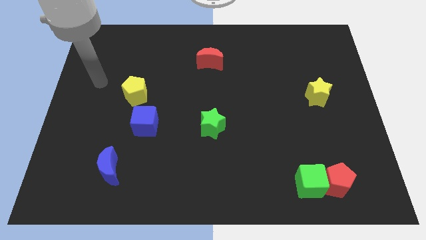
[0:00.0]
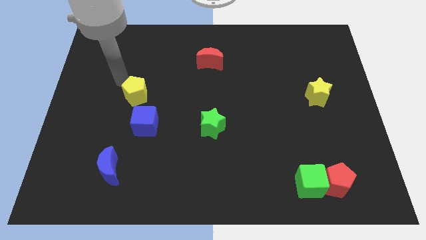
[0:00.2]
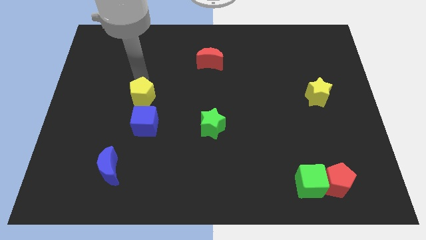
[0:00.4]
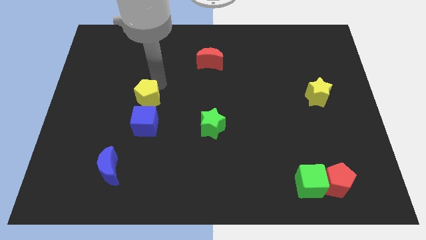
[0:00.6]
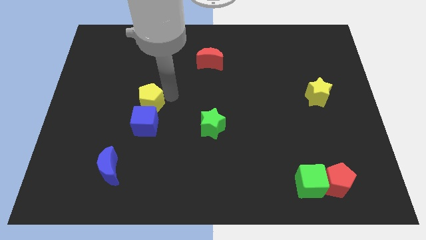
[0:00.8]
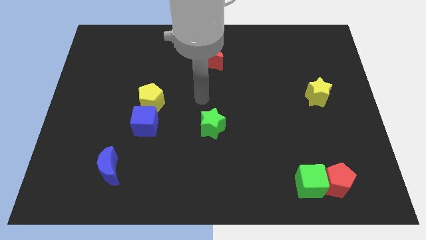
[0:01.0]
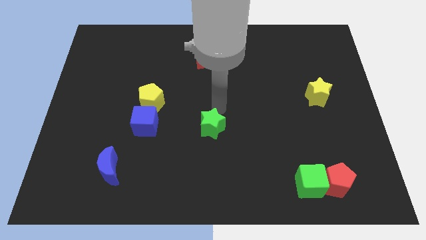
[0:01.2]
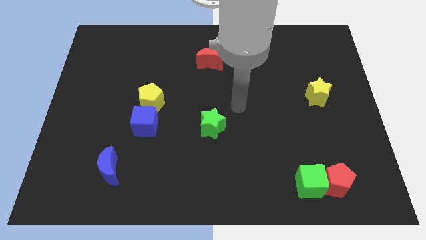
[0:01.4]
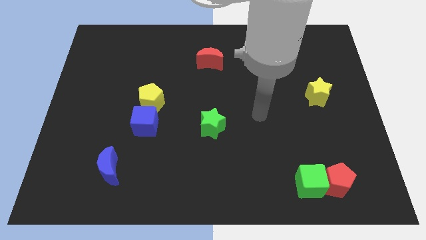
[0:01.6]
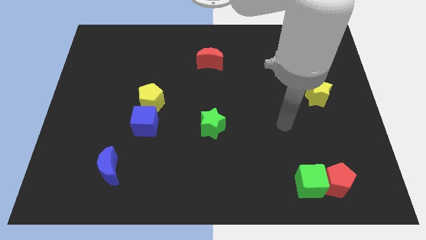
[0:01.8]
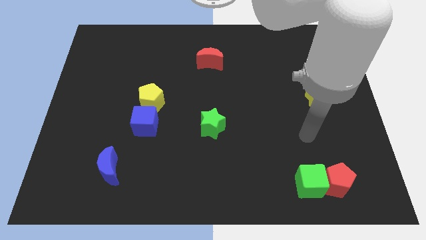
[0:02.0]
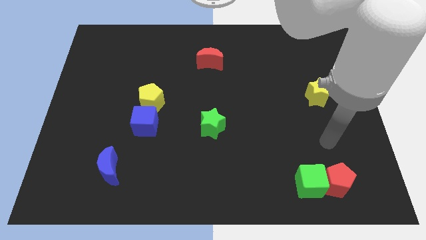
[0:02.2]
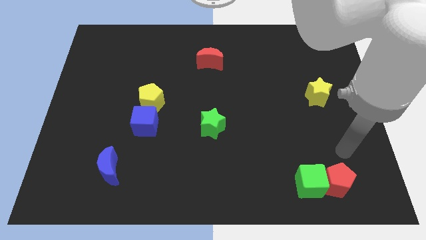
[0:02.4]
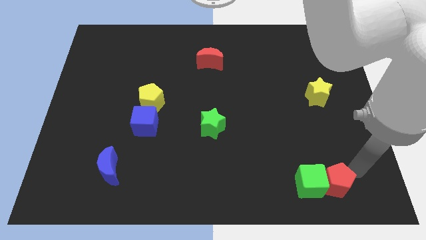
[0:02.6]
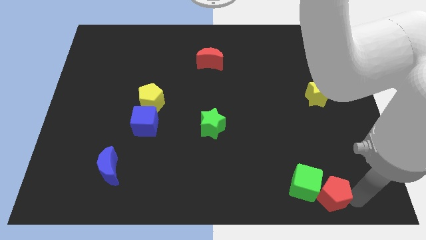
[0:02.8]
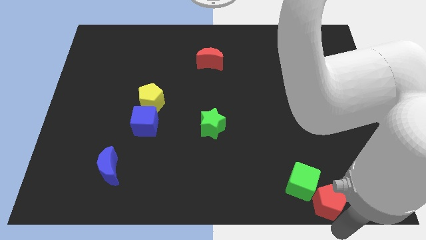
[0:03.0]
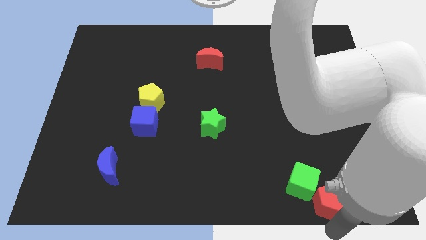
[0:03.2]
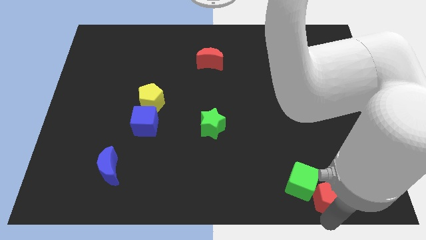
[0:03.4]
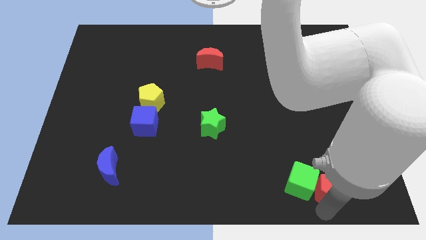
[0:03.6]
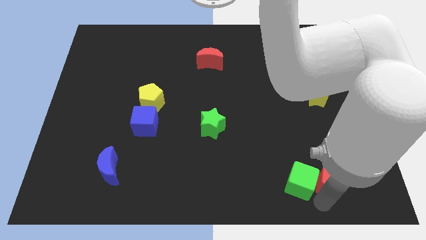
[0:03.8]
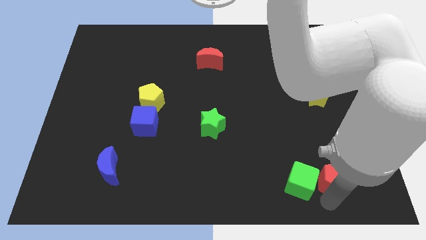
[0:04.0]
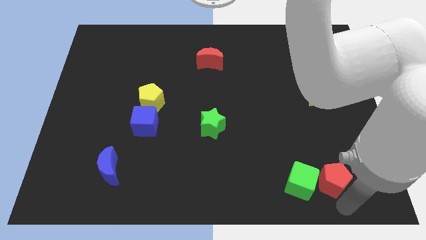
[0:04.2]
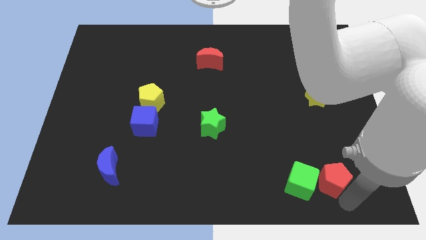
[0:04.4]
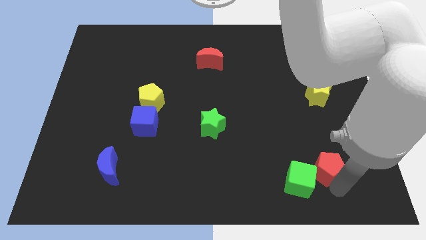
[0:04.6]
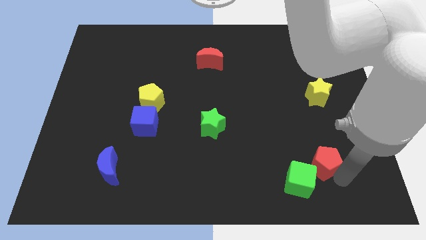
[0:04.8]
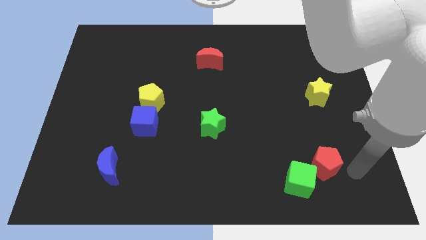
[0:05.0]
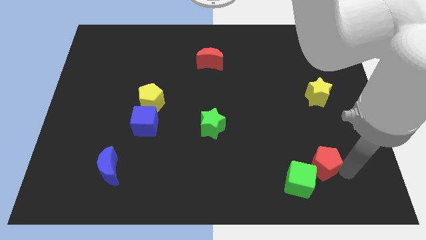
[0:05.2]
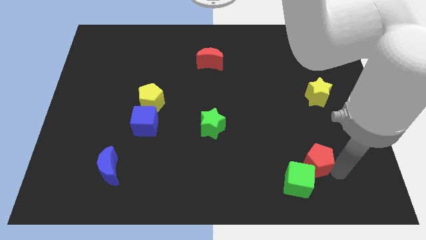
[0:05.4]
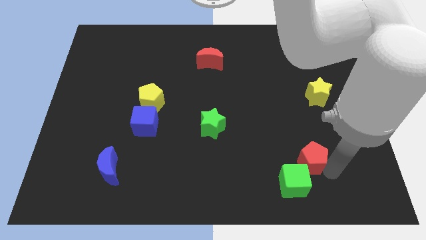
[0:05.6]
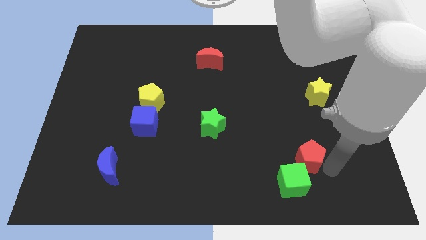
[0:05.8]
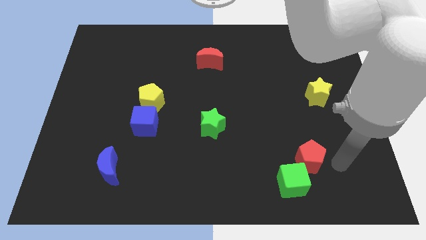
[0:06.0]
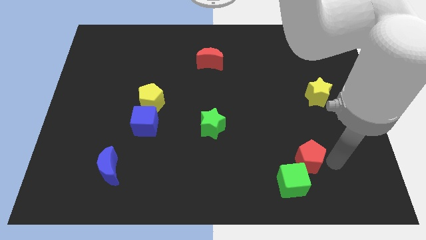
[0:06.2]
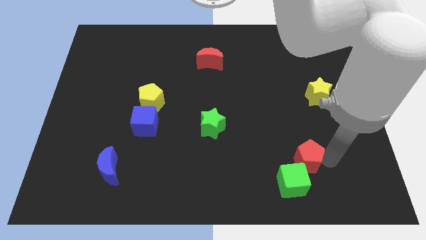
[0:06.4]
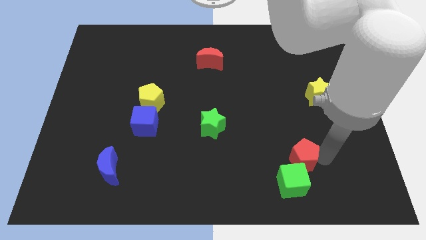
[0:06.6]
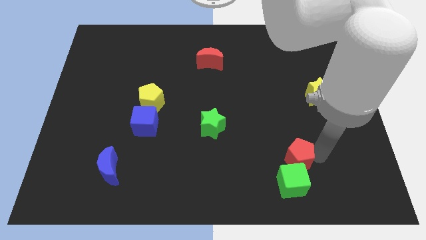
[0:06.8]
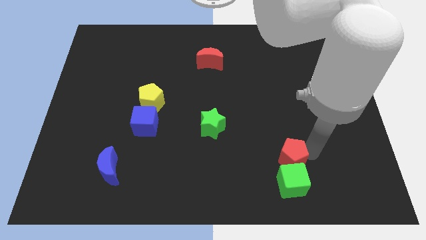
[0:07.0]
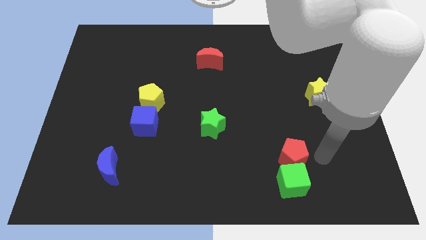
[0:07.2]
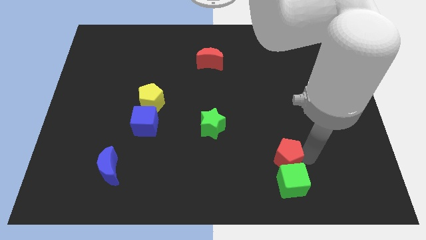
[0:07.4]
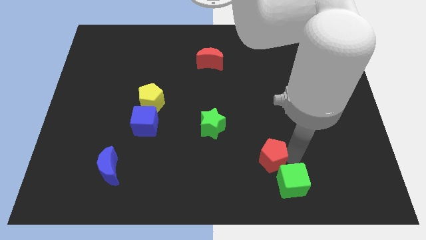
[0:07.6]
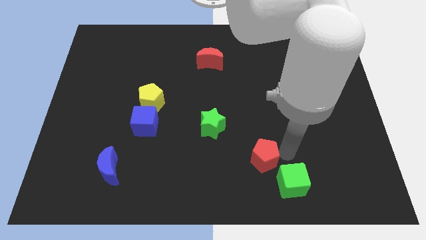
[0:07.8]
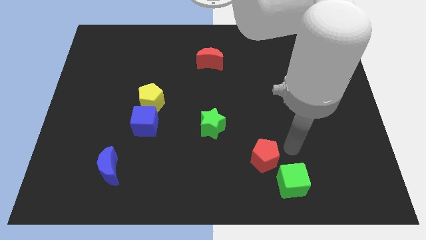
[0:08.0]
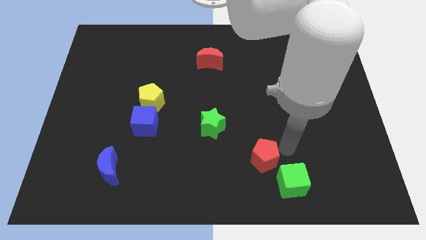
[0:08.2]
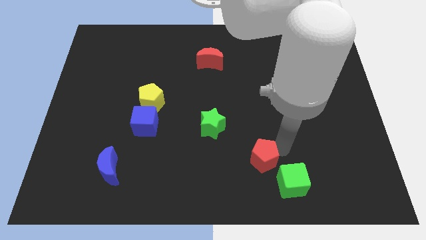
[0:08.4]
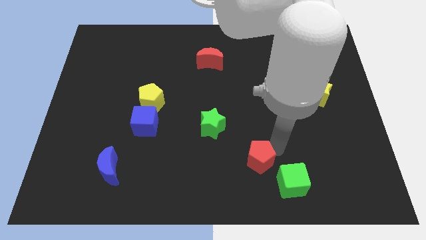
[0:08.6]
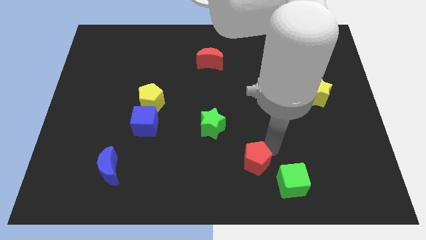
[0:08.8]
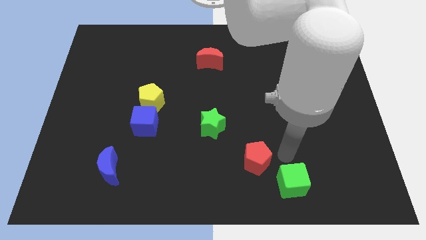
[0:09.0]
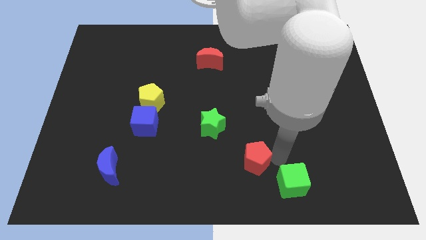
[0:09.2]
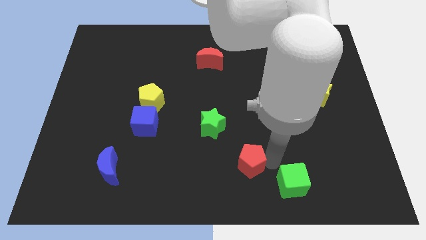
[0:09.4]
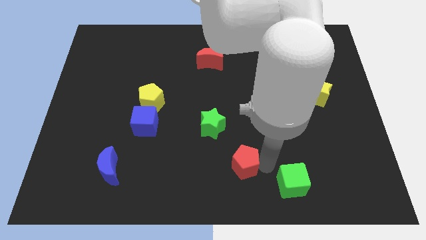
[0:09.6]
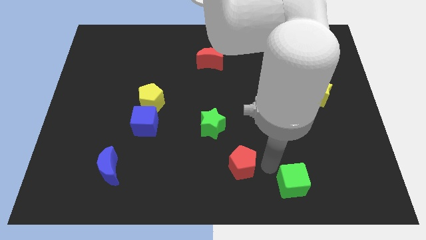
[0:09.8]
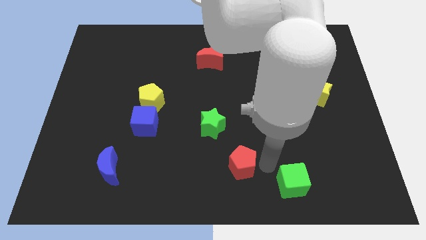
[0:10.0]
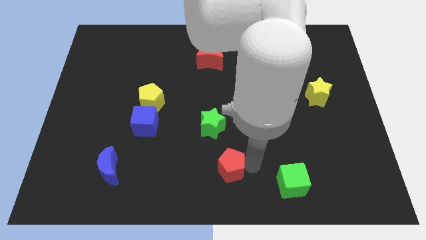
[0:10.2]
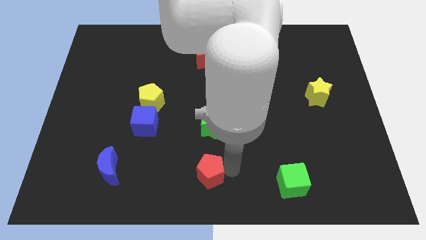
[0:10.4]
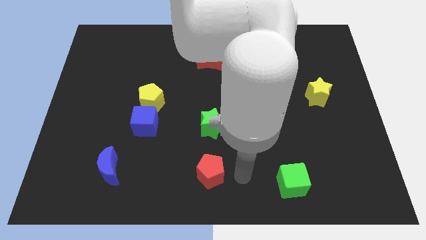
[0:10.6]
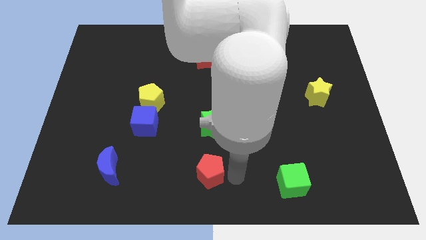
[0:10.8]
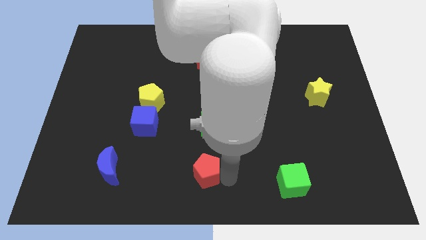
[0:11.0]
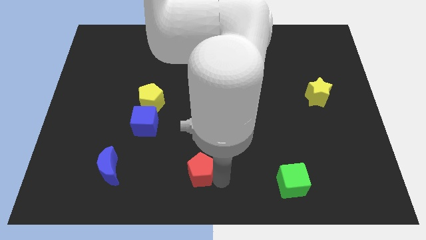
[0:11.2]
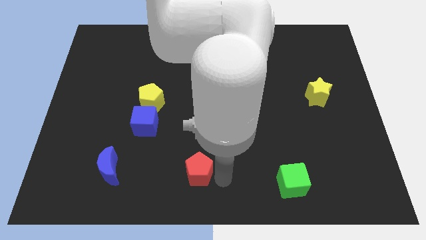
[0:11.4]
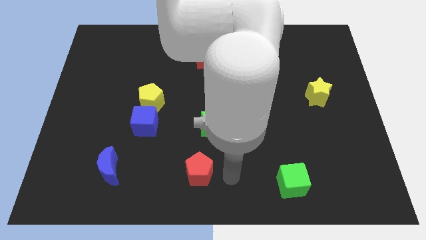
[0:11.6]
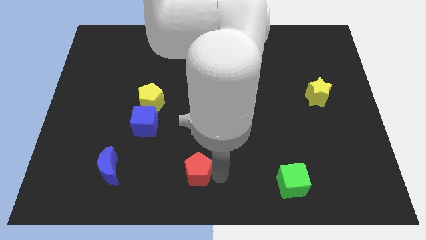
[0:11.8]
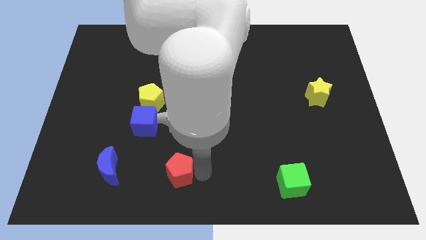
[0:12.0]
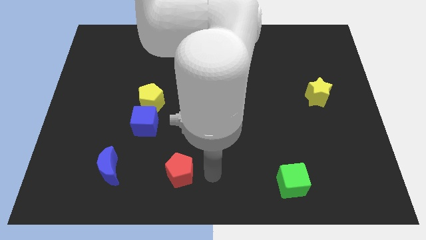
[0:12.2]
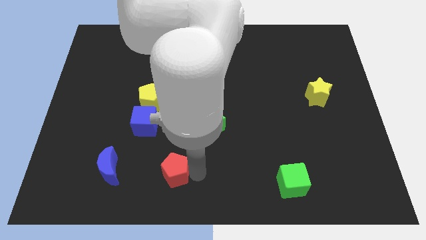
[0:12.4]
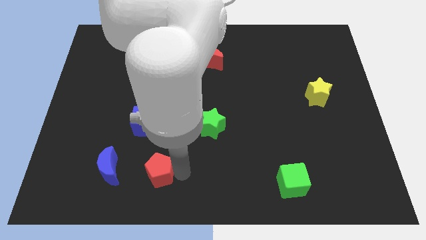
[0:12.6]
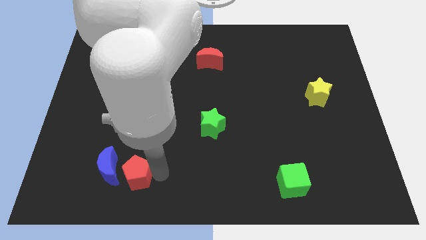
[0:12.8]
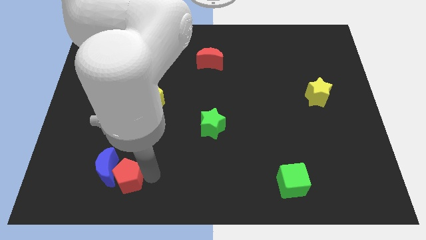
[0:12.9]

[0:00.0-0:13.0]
put the red pentagon towards the blue moon

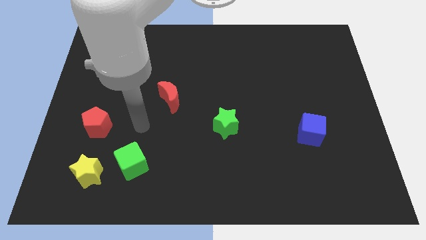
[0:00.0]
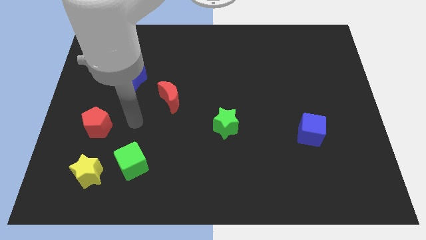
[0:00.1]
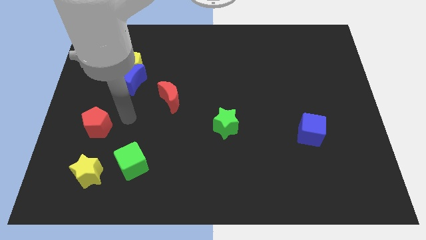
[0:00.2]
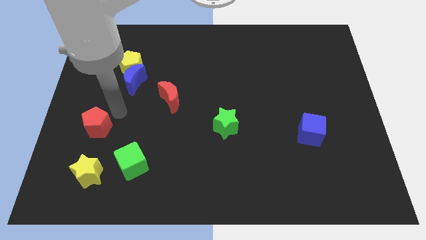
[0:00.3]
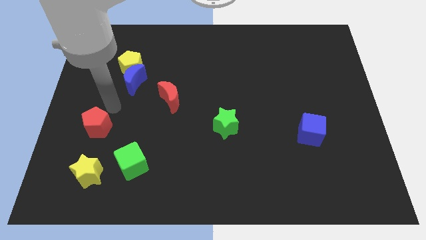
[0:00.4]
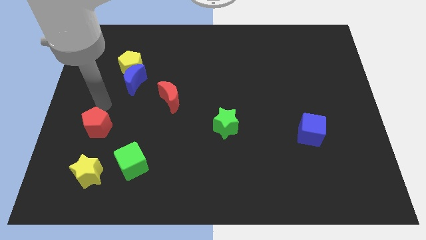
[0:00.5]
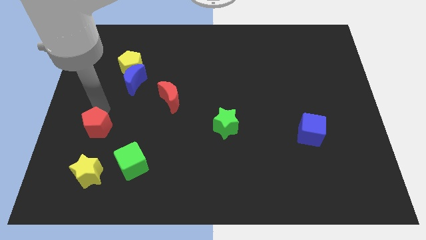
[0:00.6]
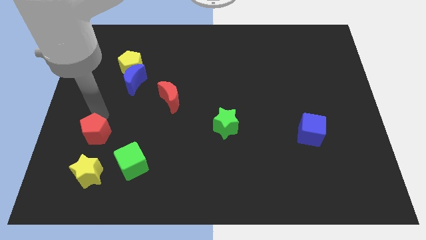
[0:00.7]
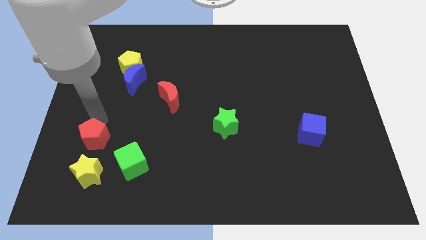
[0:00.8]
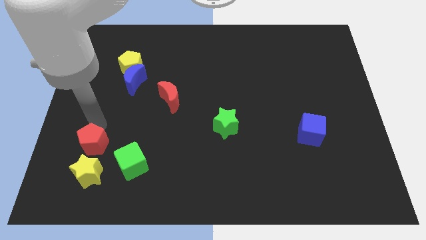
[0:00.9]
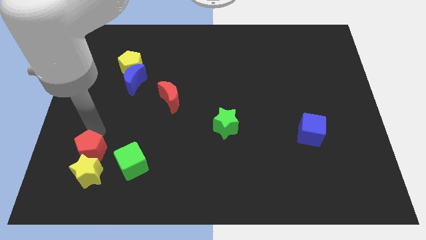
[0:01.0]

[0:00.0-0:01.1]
push the red pentagon towards the yellow star
